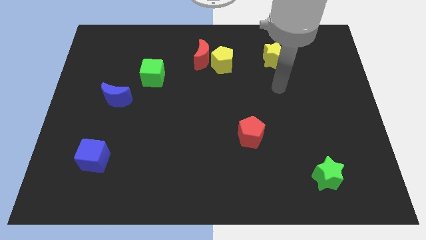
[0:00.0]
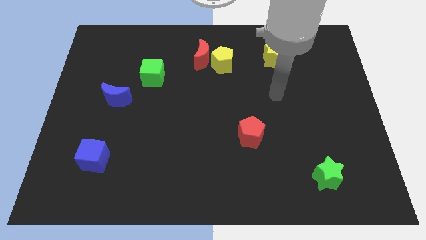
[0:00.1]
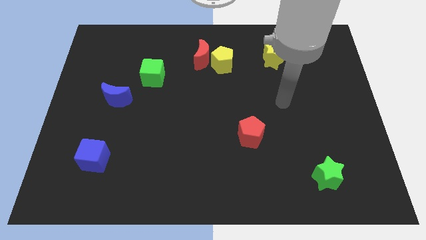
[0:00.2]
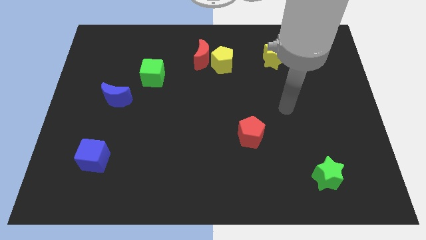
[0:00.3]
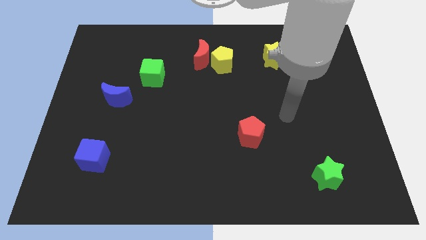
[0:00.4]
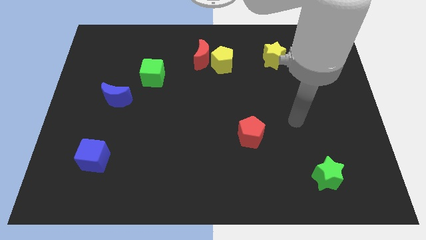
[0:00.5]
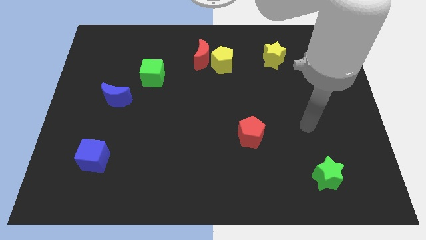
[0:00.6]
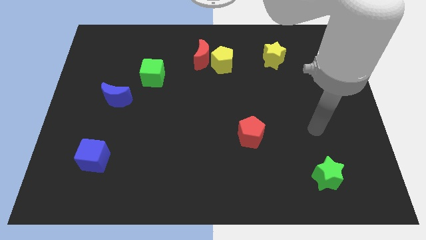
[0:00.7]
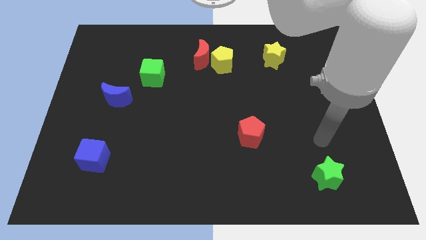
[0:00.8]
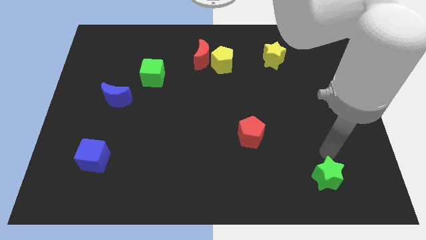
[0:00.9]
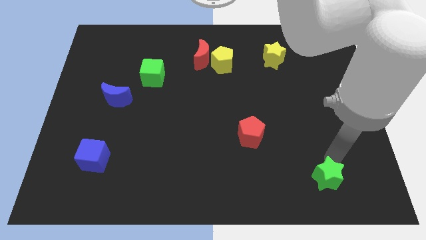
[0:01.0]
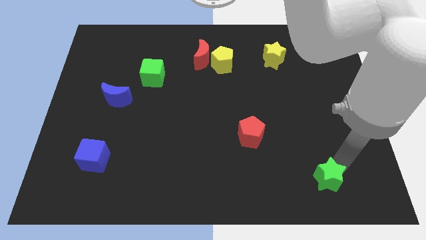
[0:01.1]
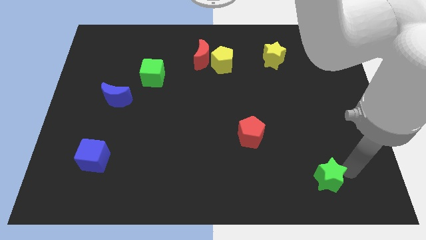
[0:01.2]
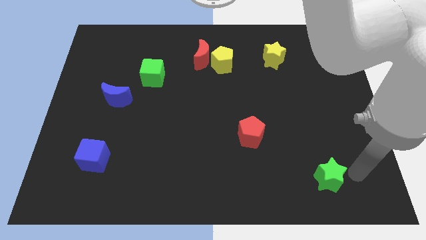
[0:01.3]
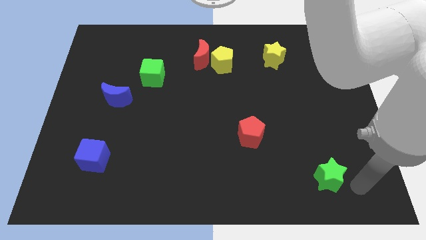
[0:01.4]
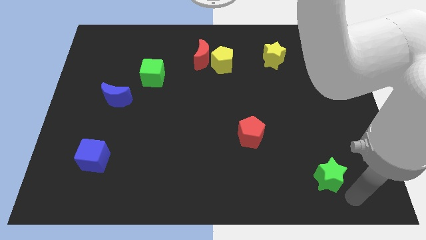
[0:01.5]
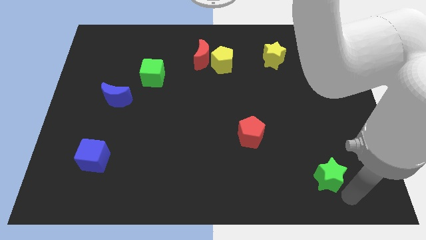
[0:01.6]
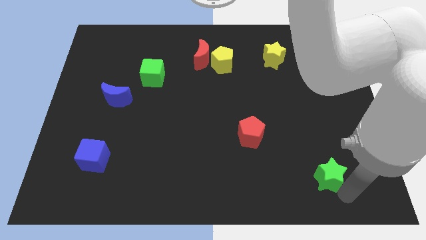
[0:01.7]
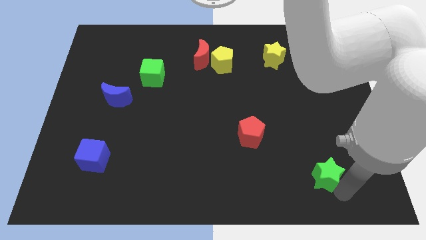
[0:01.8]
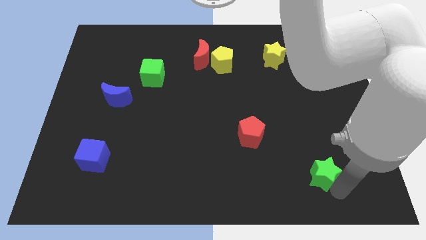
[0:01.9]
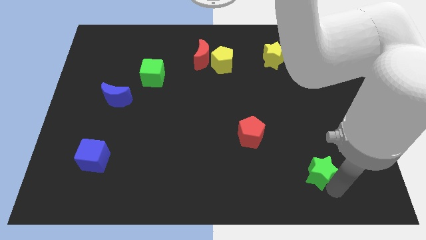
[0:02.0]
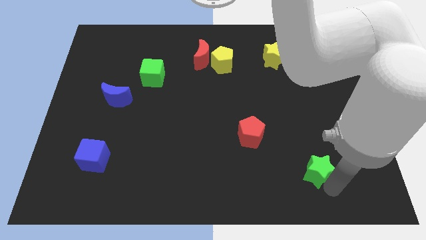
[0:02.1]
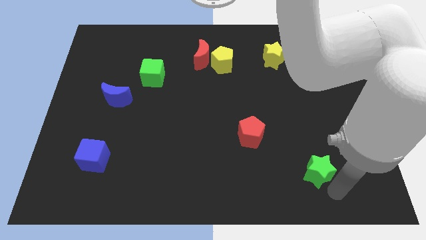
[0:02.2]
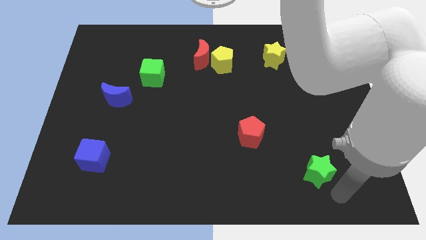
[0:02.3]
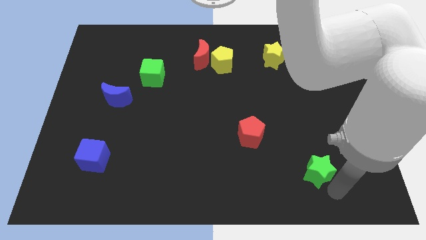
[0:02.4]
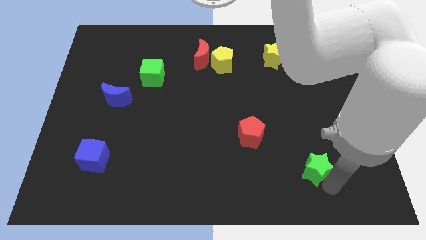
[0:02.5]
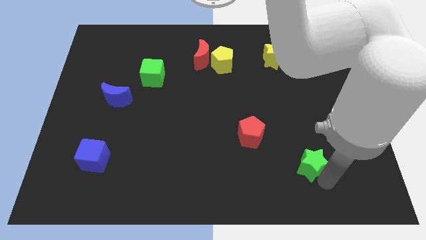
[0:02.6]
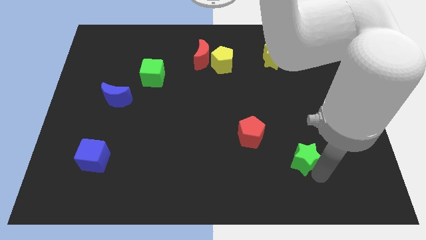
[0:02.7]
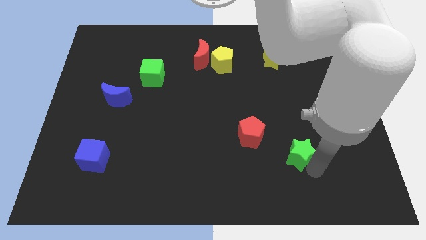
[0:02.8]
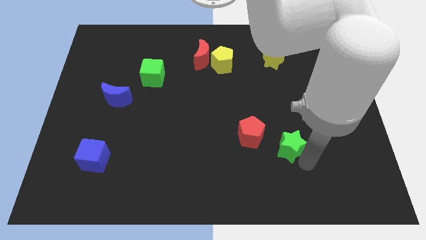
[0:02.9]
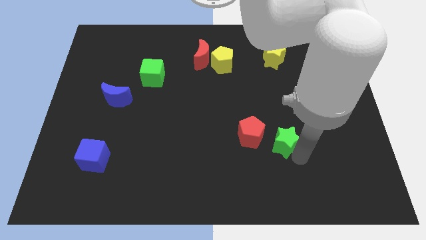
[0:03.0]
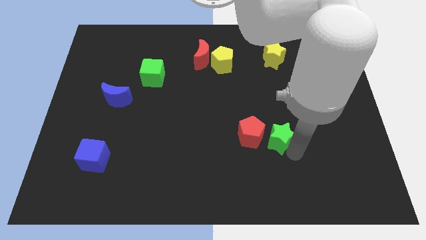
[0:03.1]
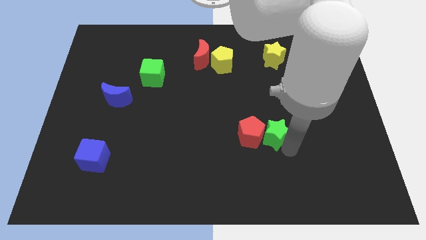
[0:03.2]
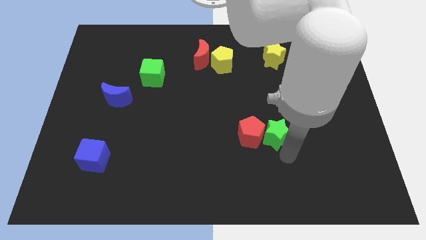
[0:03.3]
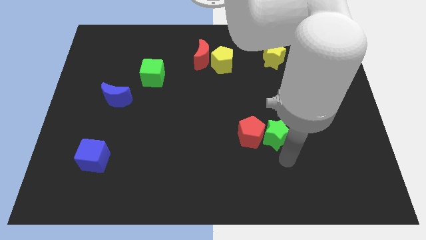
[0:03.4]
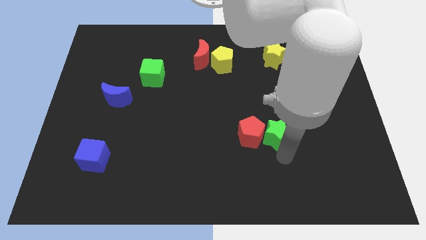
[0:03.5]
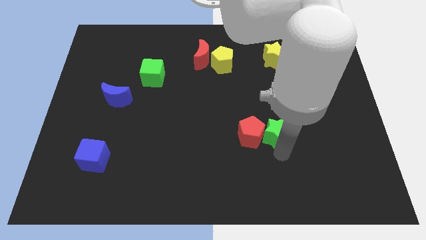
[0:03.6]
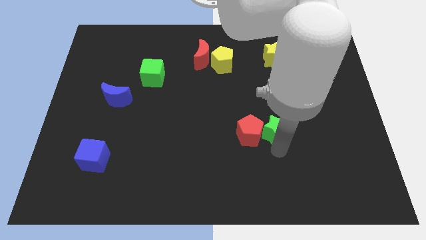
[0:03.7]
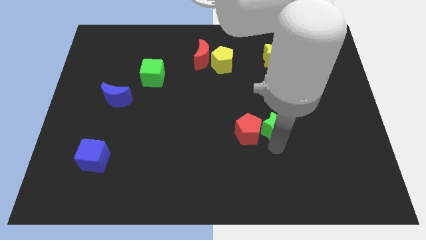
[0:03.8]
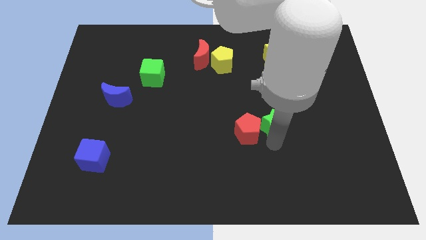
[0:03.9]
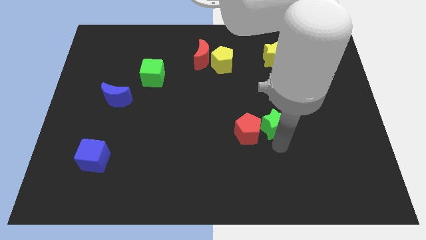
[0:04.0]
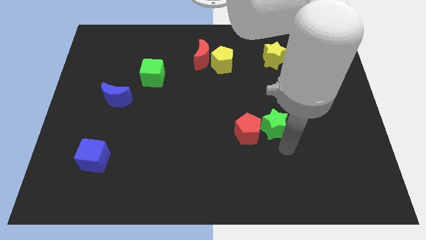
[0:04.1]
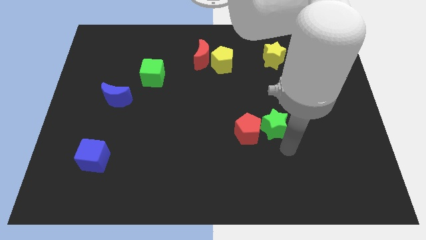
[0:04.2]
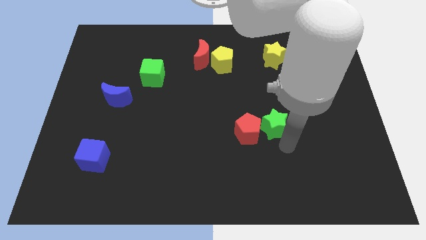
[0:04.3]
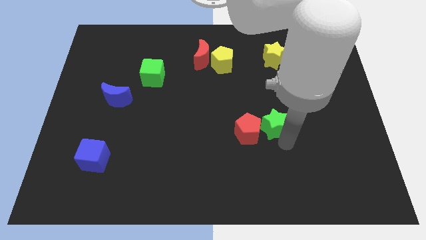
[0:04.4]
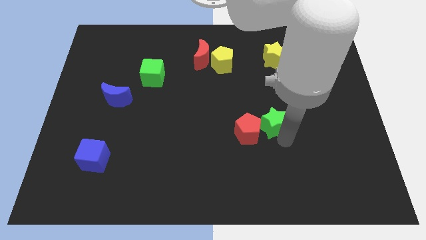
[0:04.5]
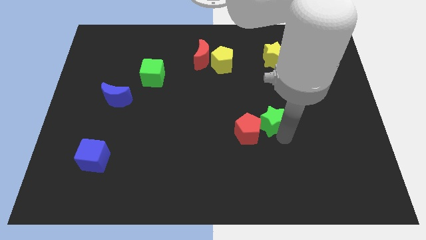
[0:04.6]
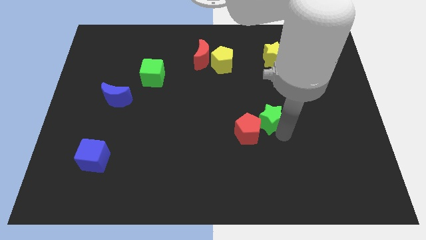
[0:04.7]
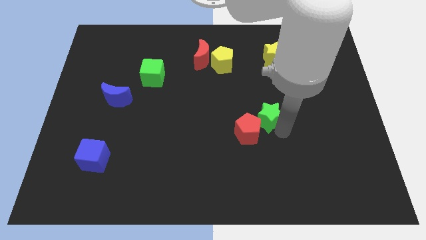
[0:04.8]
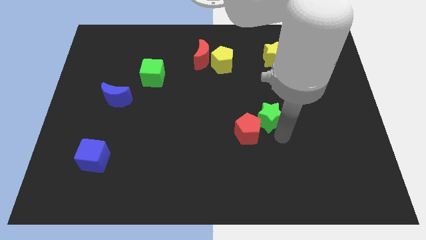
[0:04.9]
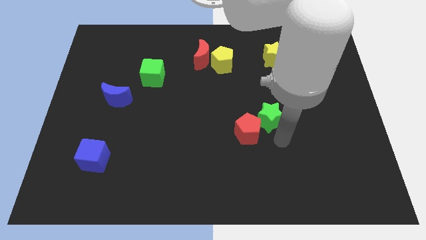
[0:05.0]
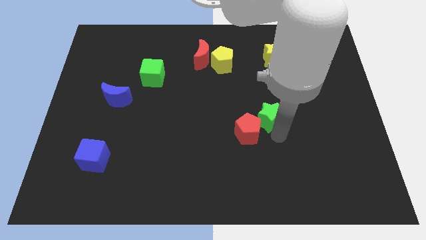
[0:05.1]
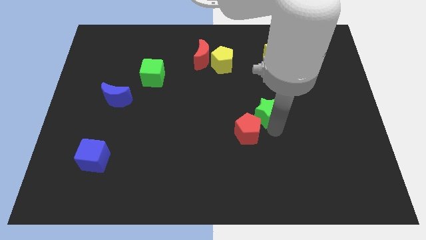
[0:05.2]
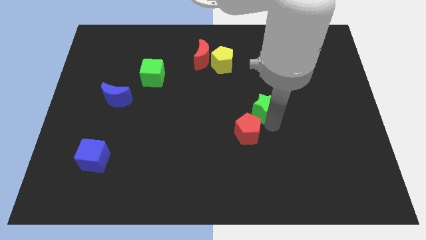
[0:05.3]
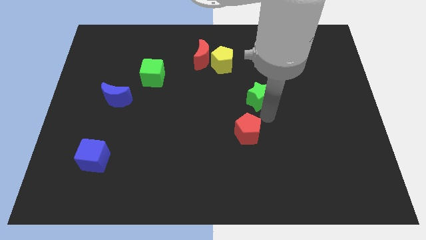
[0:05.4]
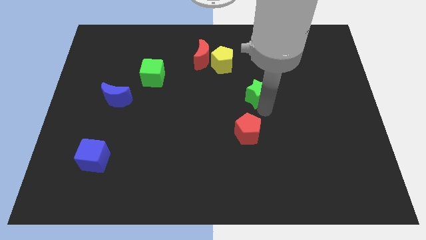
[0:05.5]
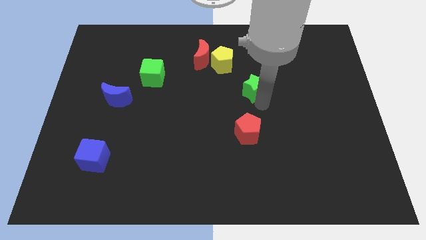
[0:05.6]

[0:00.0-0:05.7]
move the green star to the bottom right of the yellow pentagon

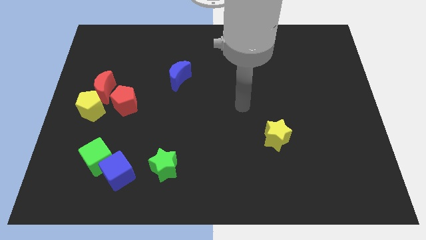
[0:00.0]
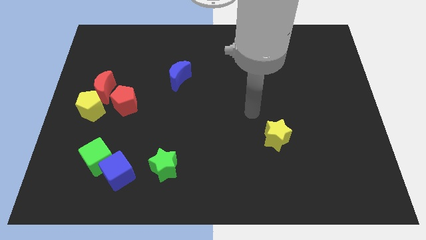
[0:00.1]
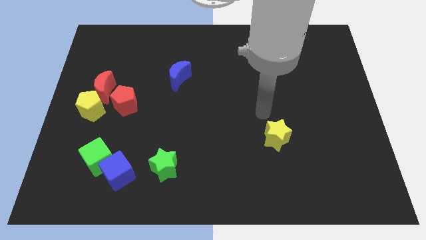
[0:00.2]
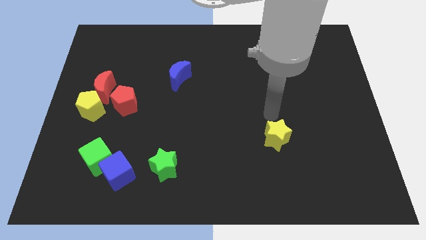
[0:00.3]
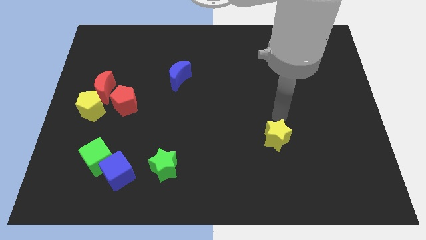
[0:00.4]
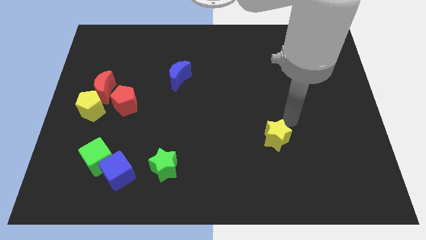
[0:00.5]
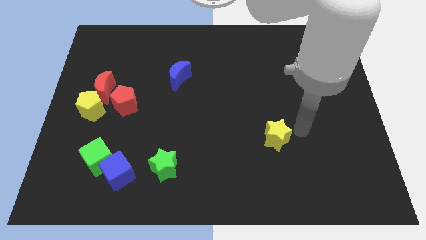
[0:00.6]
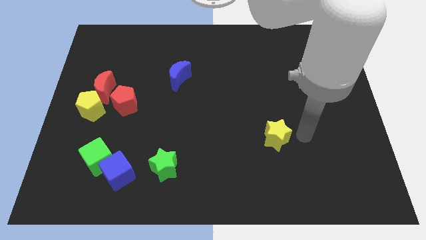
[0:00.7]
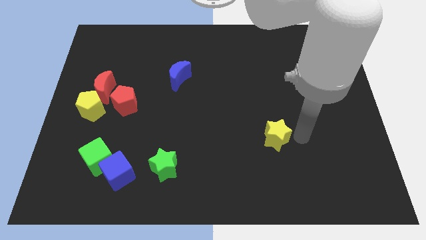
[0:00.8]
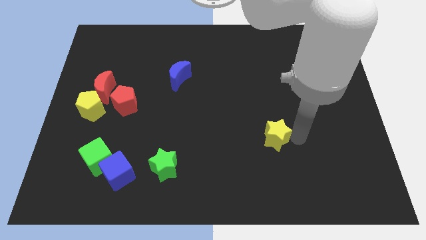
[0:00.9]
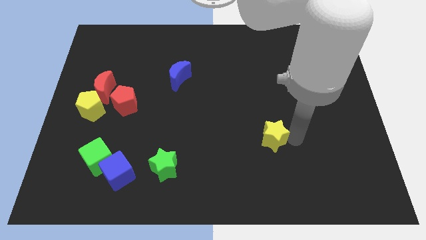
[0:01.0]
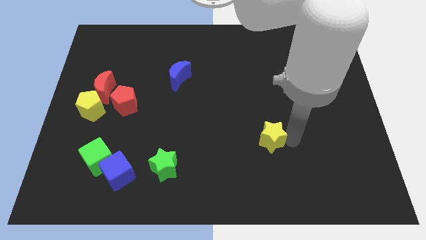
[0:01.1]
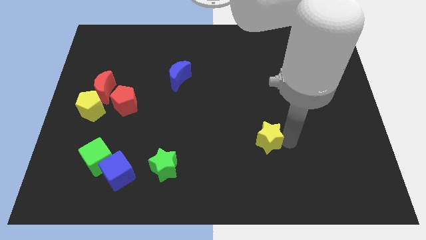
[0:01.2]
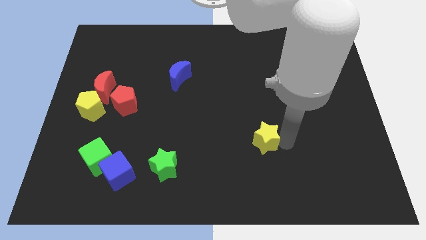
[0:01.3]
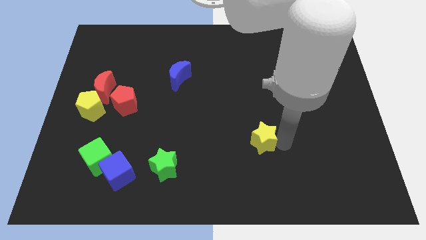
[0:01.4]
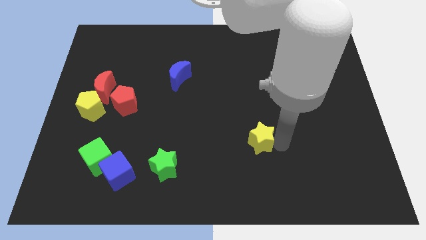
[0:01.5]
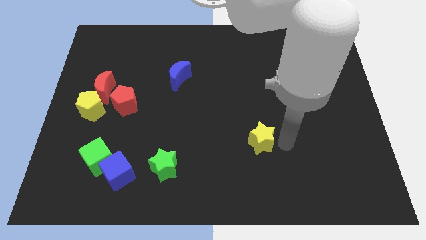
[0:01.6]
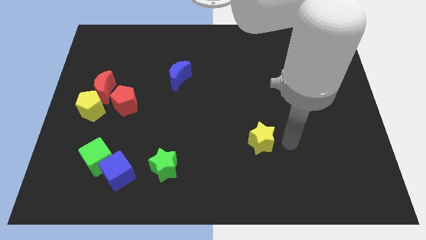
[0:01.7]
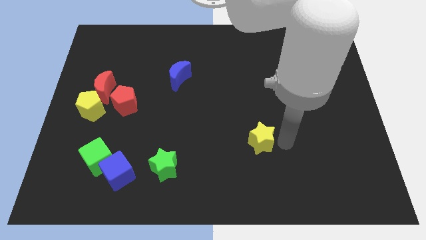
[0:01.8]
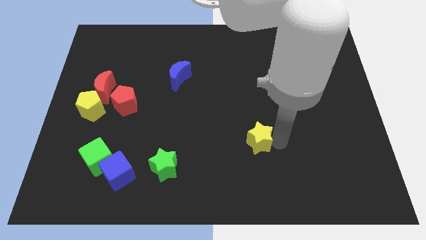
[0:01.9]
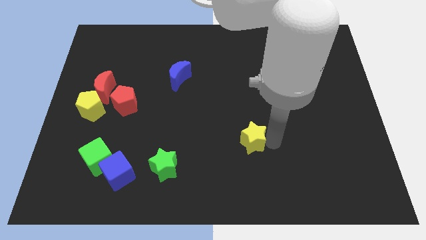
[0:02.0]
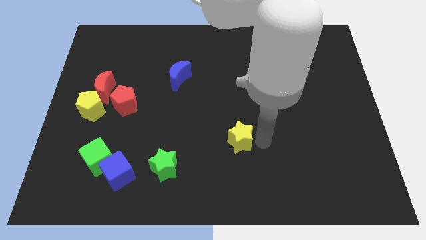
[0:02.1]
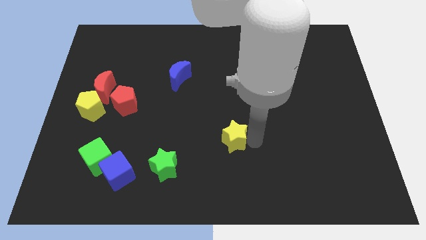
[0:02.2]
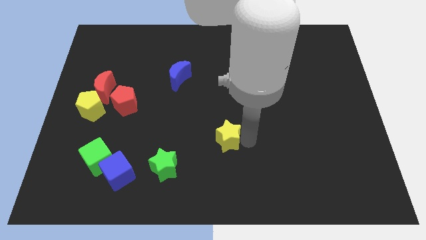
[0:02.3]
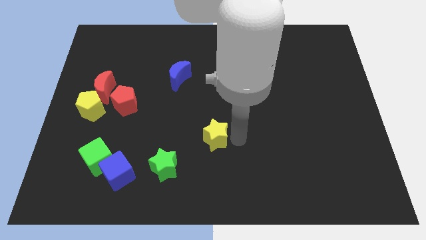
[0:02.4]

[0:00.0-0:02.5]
slide the yellow star to the top right of the green star
